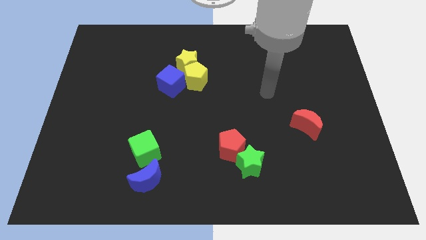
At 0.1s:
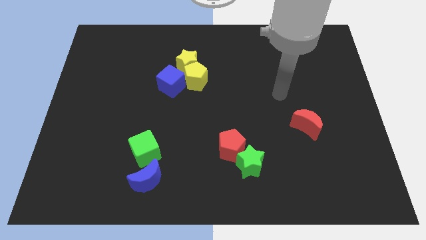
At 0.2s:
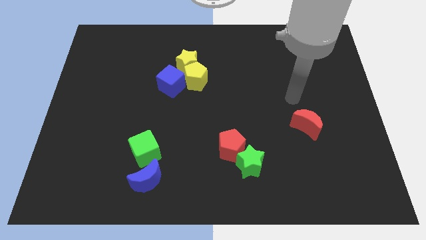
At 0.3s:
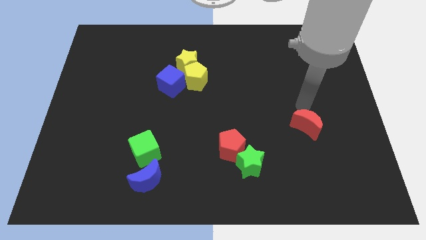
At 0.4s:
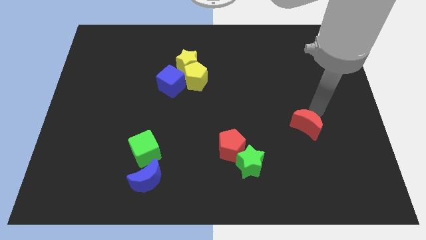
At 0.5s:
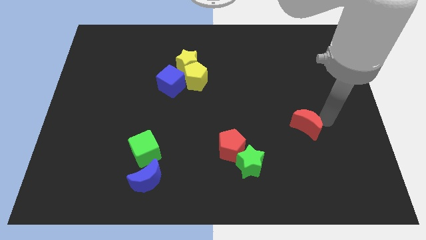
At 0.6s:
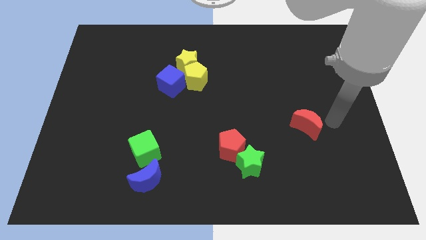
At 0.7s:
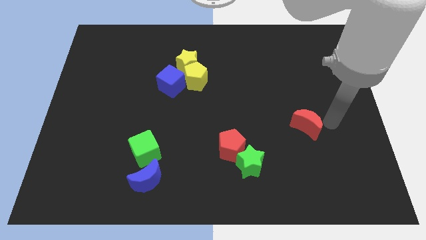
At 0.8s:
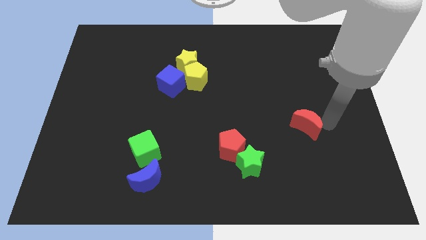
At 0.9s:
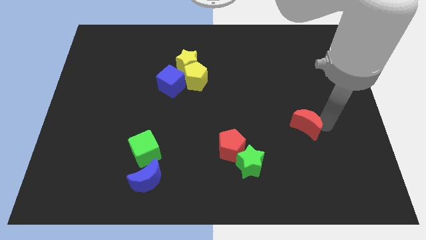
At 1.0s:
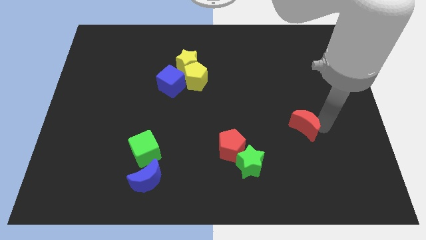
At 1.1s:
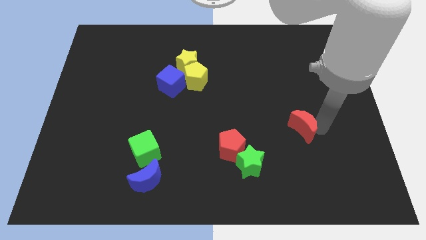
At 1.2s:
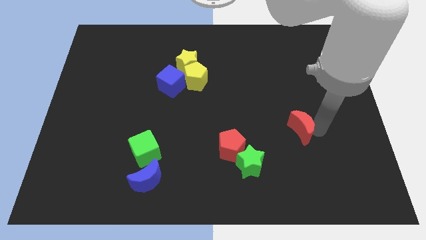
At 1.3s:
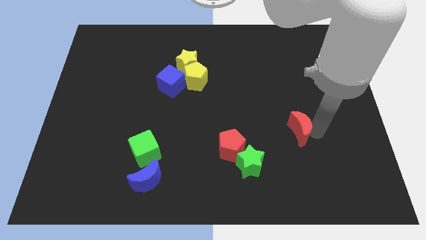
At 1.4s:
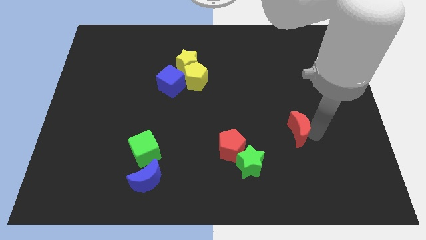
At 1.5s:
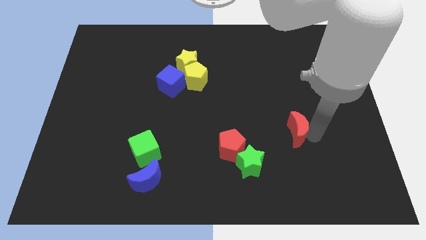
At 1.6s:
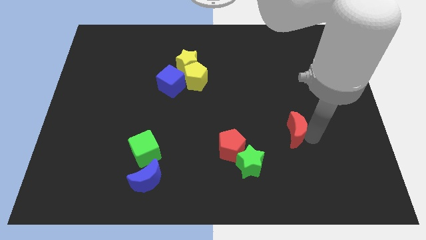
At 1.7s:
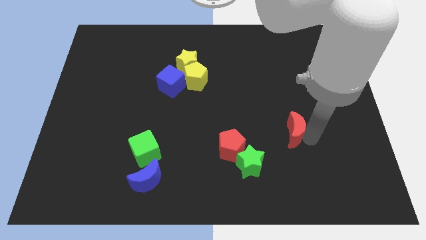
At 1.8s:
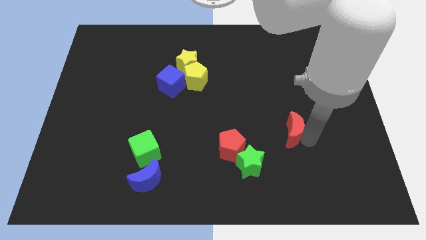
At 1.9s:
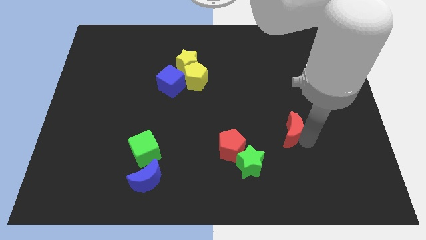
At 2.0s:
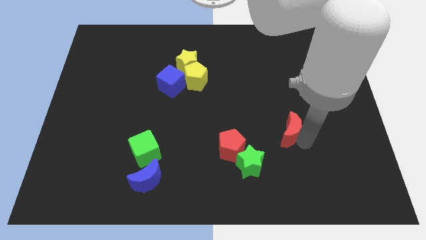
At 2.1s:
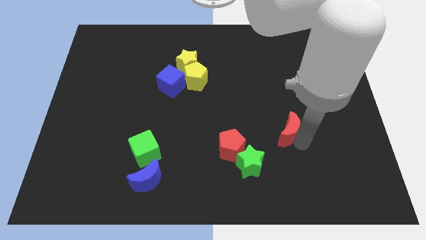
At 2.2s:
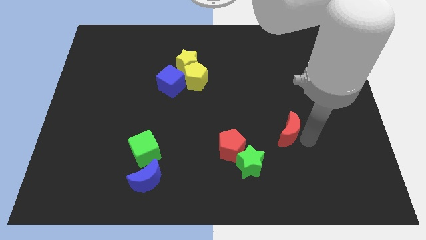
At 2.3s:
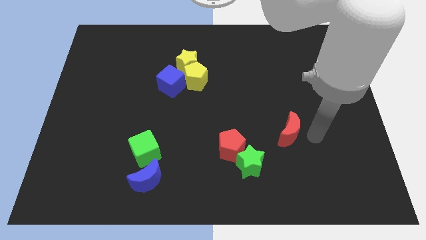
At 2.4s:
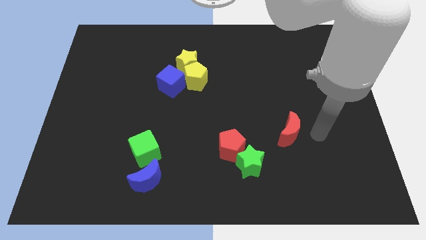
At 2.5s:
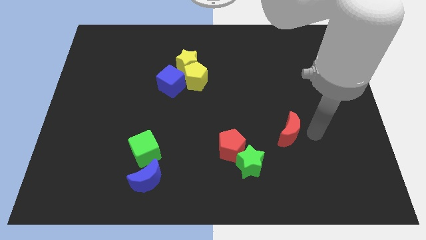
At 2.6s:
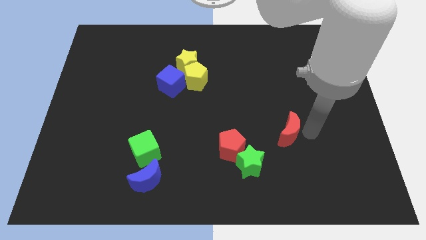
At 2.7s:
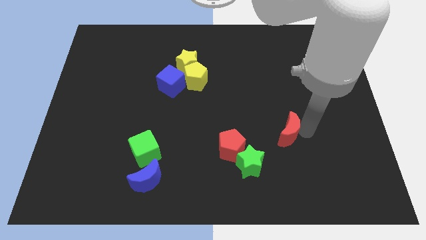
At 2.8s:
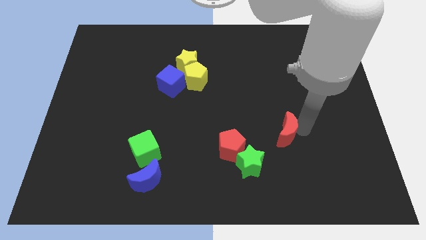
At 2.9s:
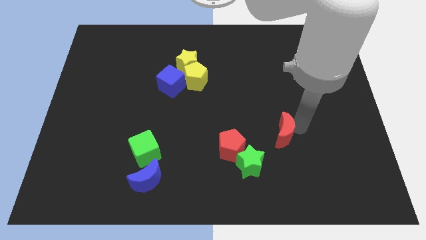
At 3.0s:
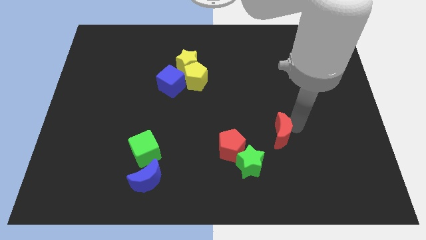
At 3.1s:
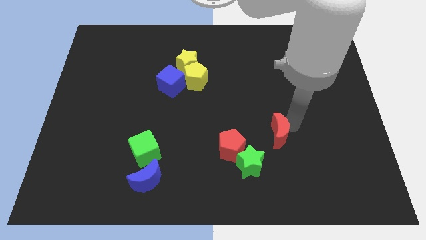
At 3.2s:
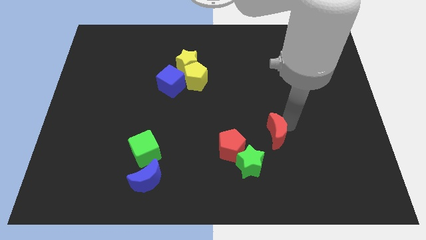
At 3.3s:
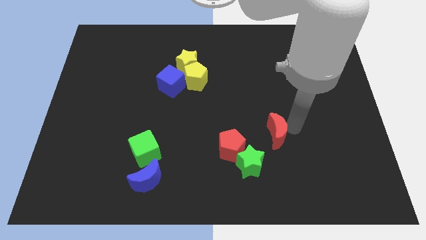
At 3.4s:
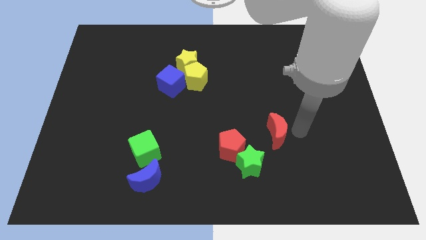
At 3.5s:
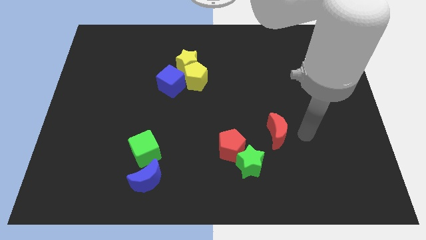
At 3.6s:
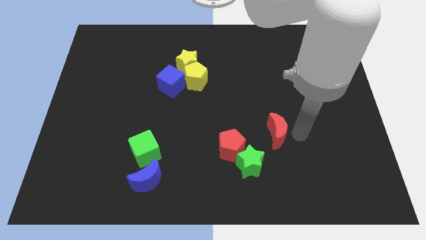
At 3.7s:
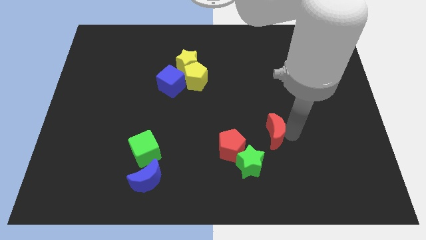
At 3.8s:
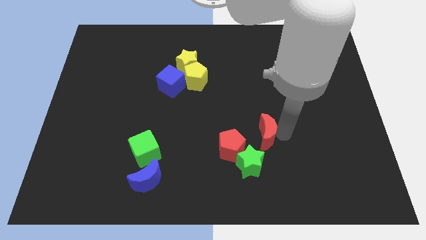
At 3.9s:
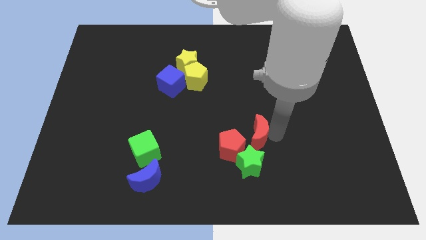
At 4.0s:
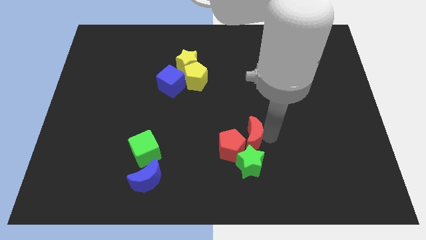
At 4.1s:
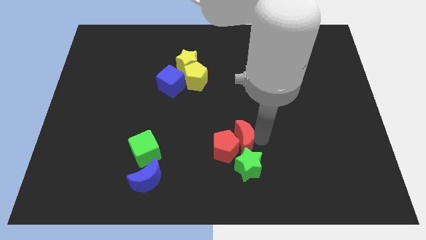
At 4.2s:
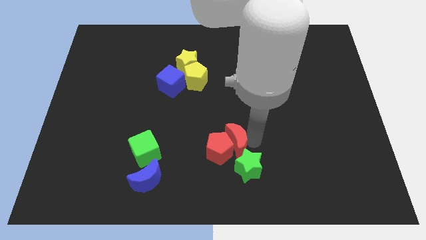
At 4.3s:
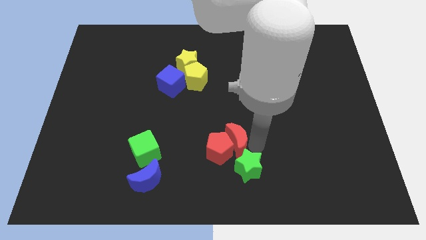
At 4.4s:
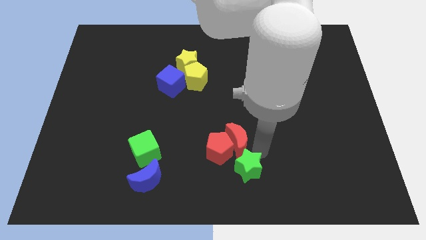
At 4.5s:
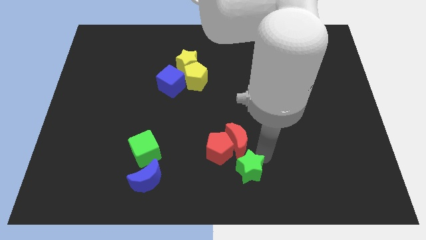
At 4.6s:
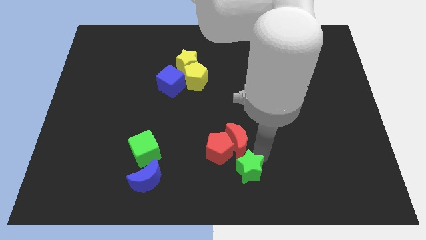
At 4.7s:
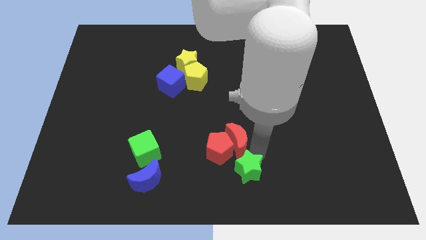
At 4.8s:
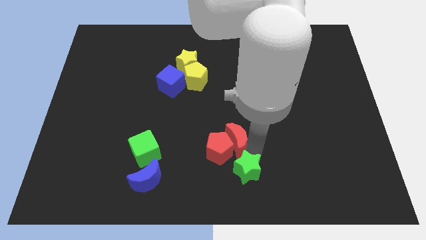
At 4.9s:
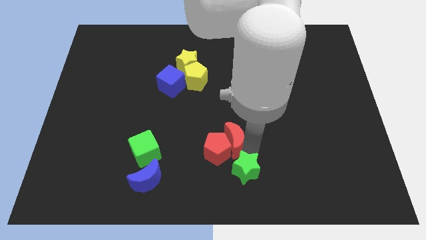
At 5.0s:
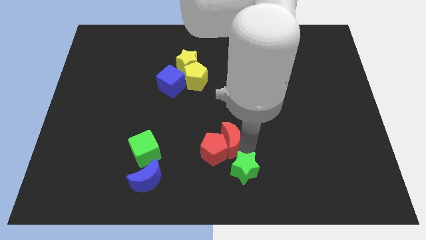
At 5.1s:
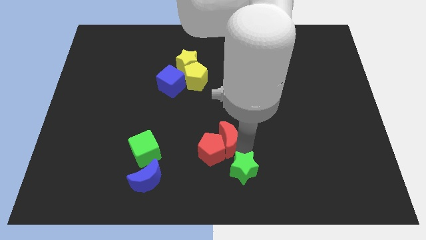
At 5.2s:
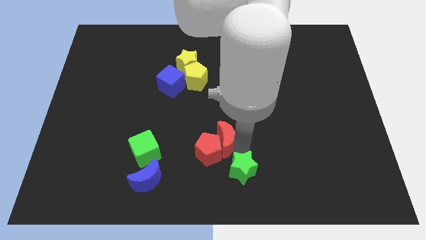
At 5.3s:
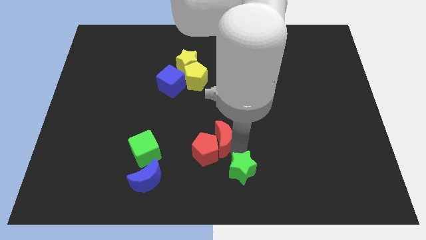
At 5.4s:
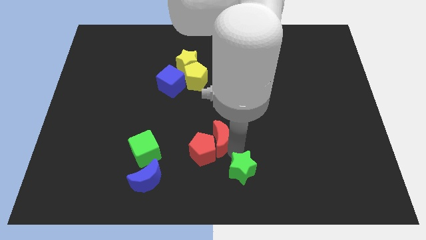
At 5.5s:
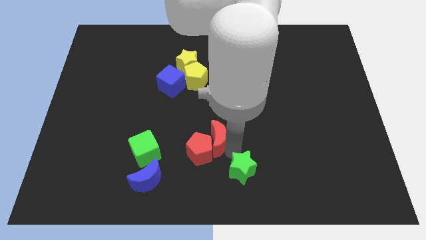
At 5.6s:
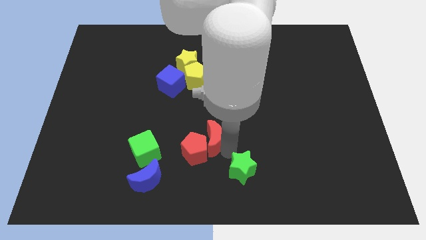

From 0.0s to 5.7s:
move the red moon left

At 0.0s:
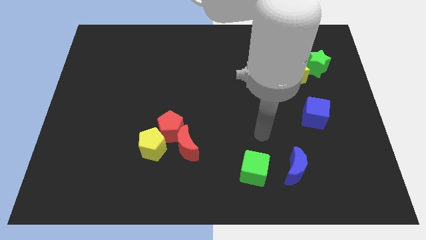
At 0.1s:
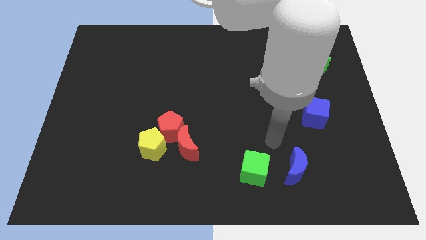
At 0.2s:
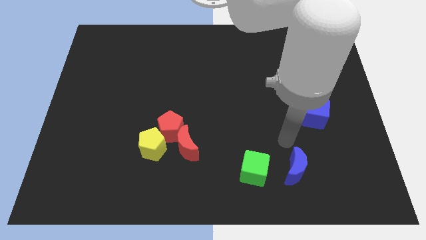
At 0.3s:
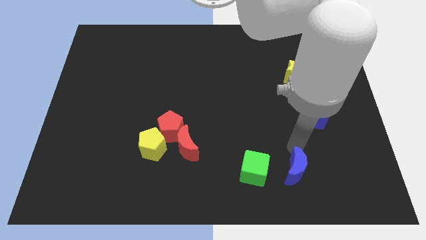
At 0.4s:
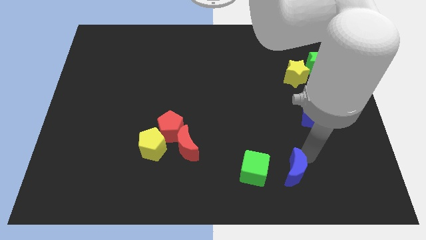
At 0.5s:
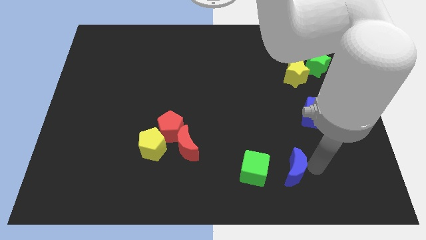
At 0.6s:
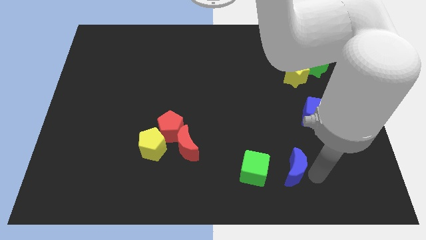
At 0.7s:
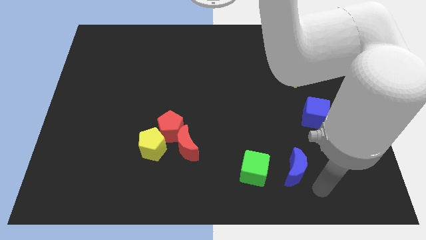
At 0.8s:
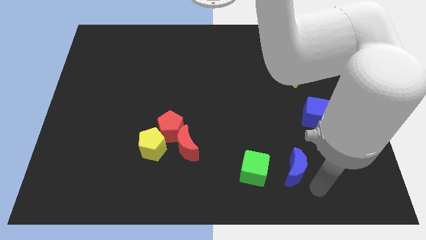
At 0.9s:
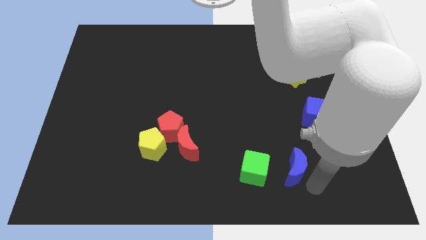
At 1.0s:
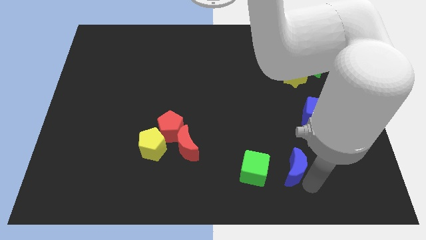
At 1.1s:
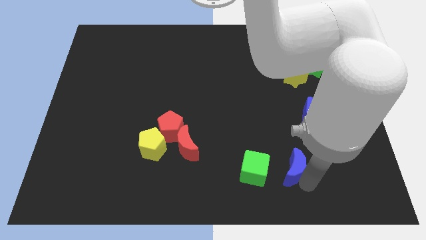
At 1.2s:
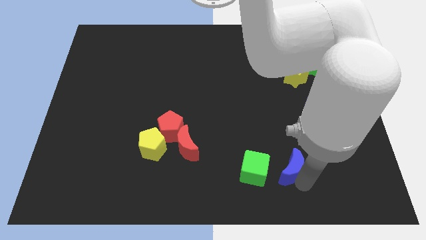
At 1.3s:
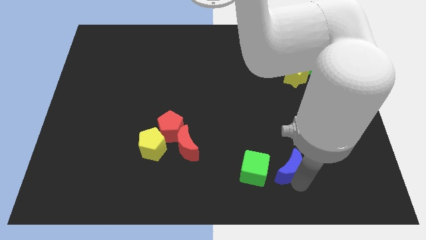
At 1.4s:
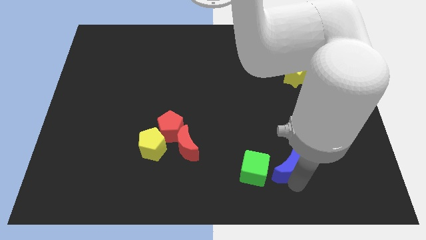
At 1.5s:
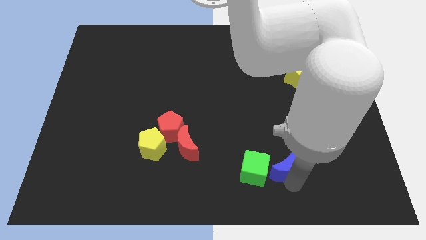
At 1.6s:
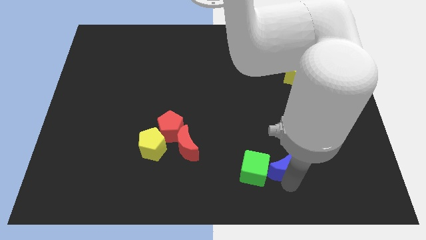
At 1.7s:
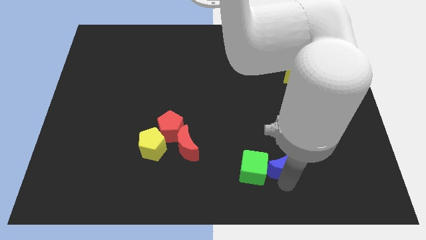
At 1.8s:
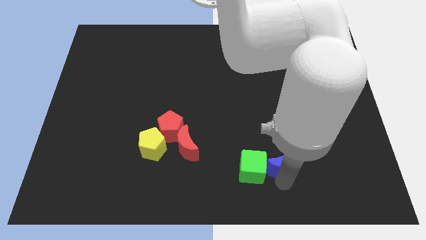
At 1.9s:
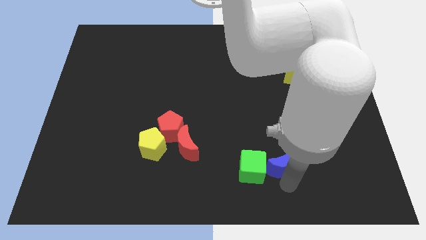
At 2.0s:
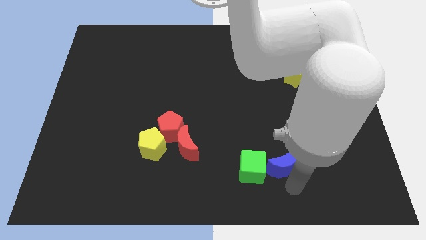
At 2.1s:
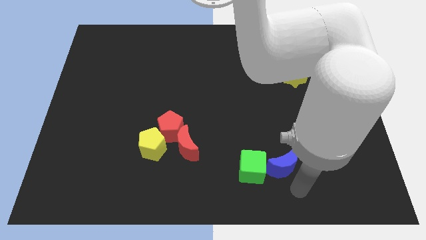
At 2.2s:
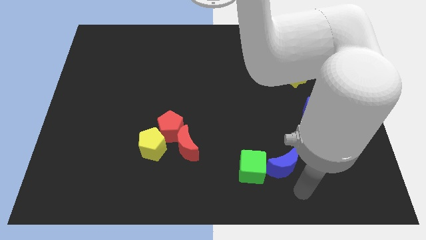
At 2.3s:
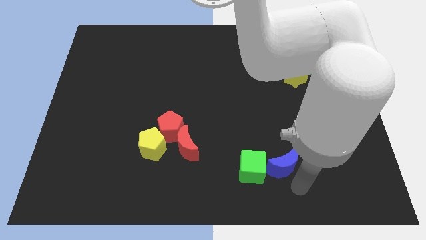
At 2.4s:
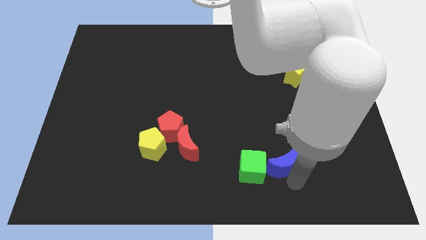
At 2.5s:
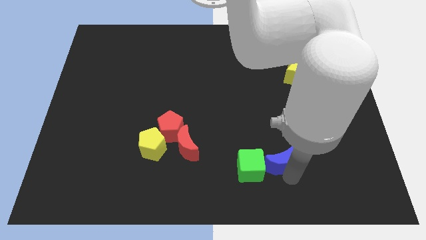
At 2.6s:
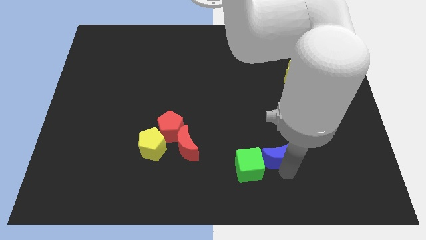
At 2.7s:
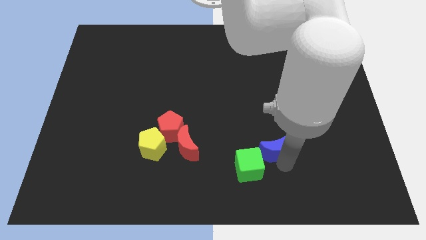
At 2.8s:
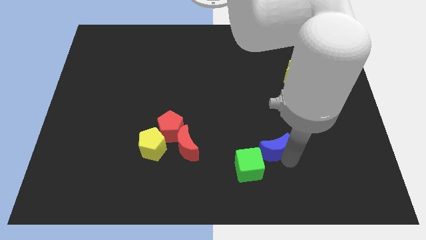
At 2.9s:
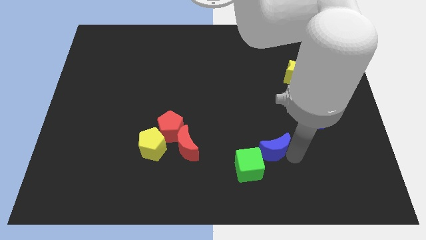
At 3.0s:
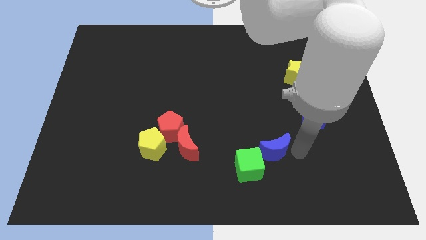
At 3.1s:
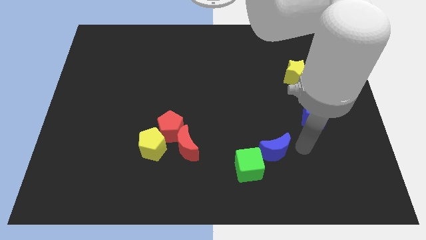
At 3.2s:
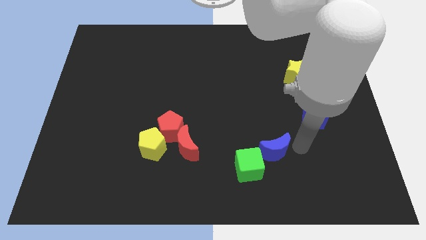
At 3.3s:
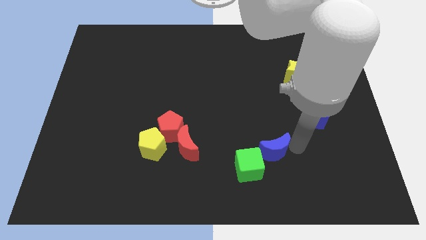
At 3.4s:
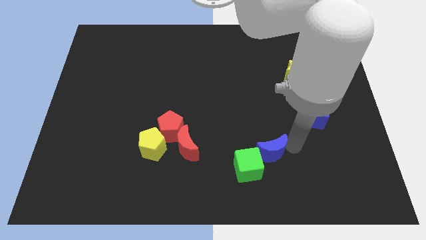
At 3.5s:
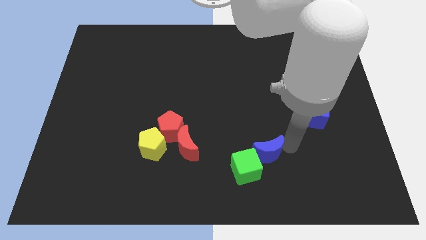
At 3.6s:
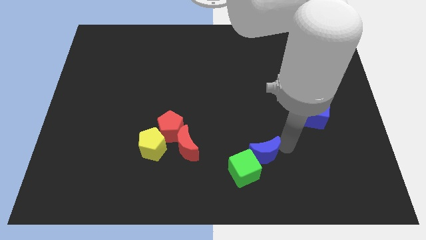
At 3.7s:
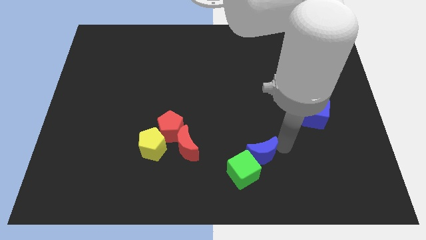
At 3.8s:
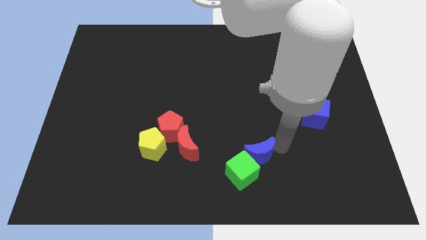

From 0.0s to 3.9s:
move the blue moon a little to the left
